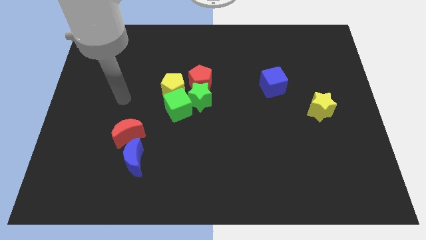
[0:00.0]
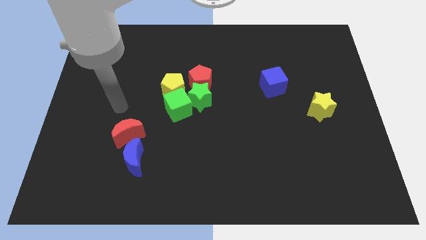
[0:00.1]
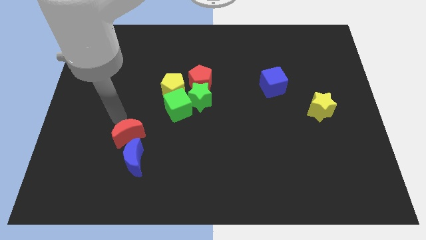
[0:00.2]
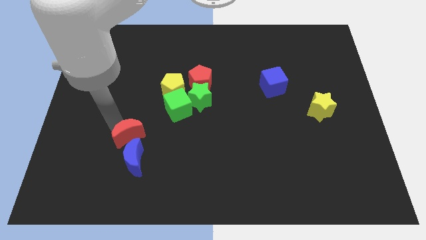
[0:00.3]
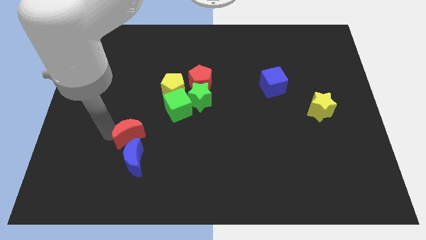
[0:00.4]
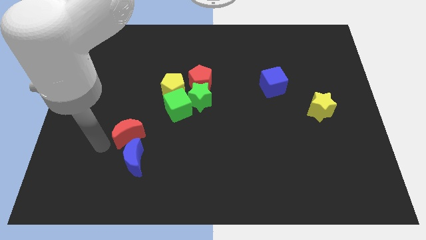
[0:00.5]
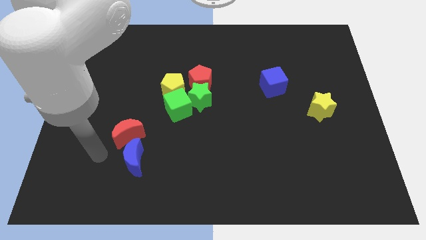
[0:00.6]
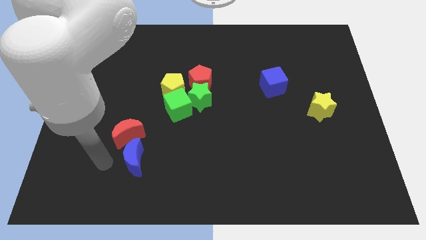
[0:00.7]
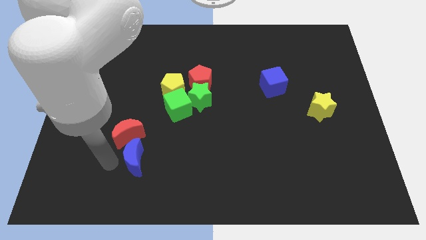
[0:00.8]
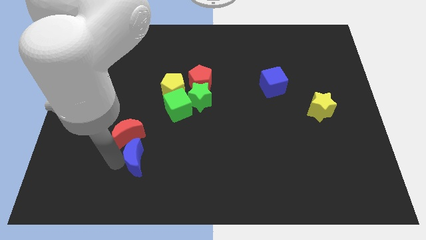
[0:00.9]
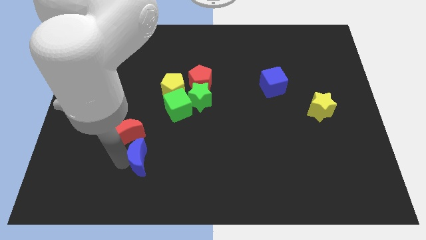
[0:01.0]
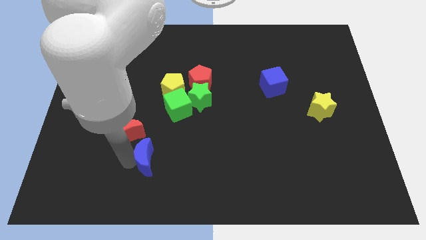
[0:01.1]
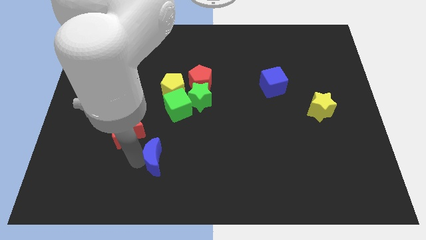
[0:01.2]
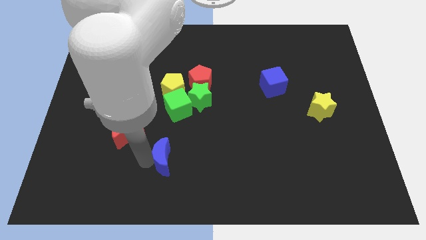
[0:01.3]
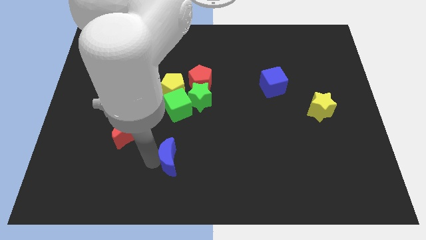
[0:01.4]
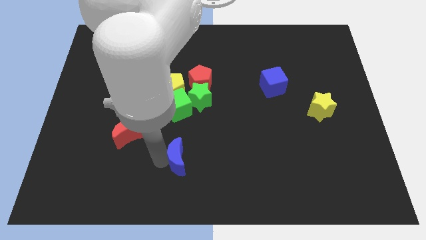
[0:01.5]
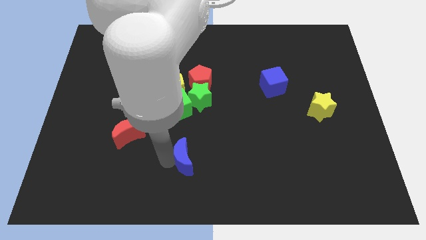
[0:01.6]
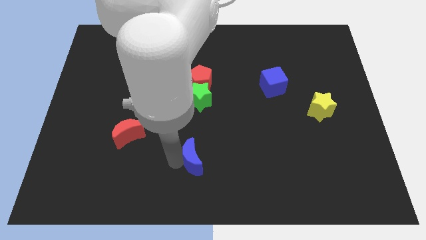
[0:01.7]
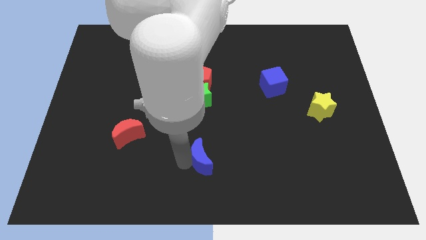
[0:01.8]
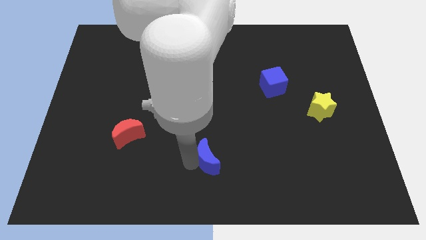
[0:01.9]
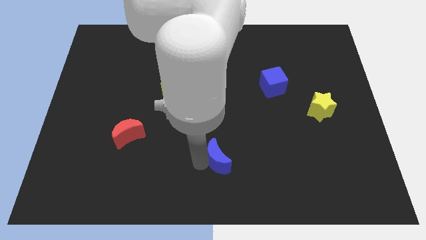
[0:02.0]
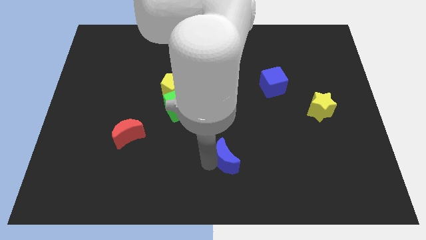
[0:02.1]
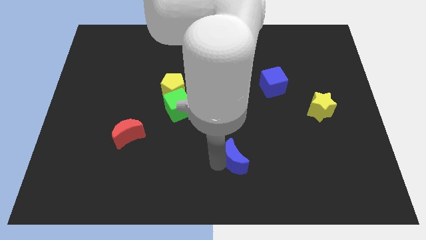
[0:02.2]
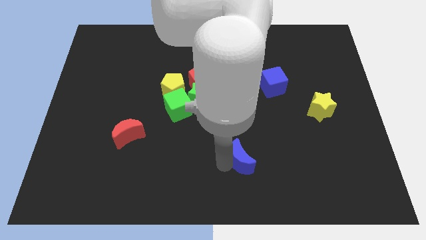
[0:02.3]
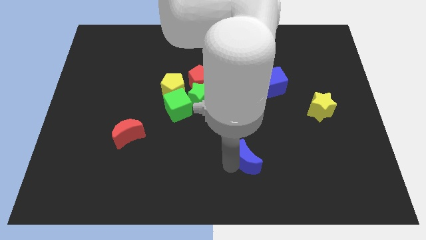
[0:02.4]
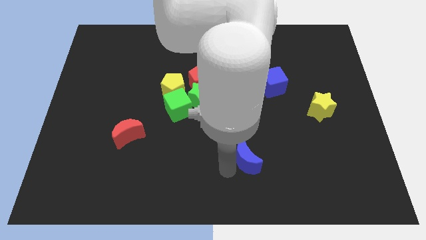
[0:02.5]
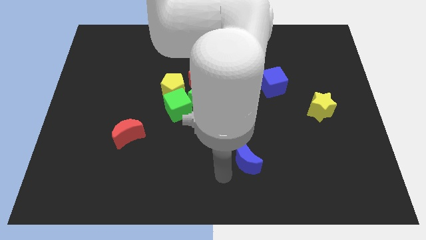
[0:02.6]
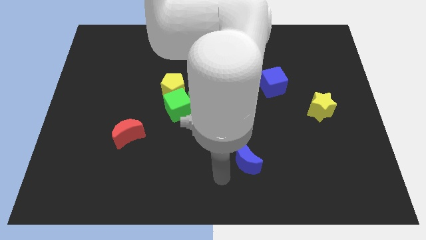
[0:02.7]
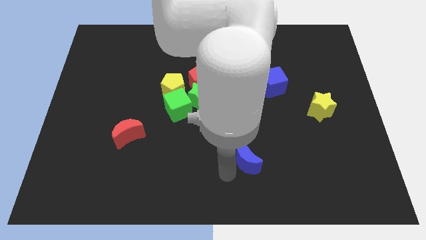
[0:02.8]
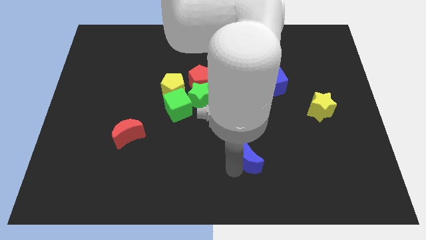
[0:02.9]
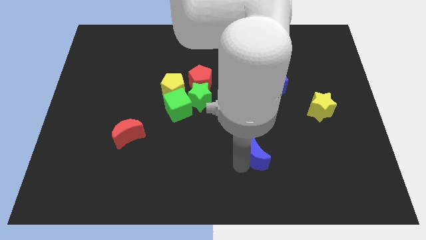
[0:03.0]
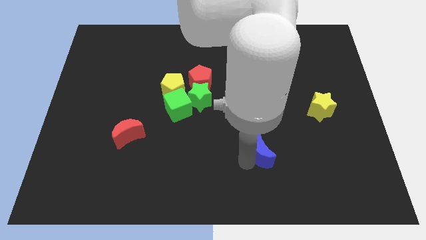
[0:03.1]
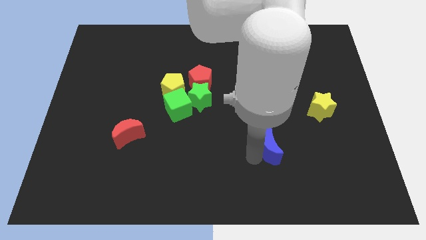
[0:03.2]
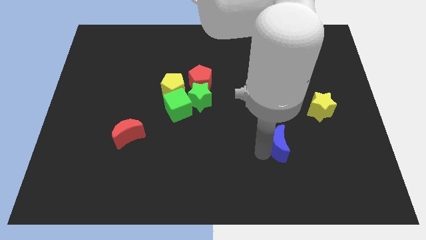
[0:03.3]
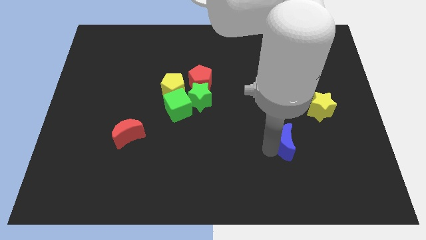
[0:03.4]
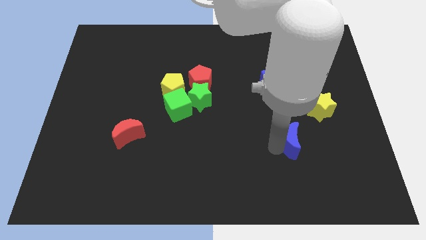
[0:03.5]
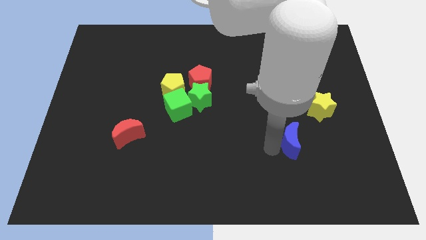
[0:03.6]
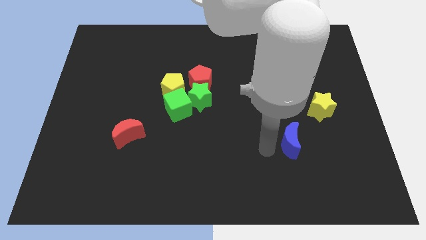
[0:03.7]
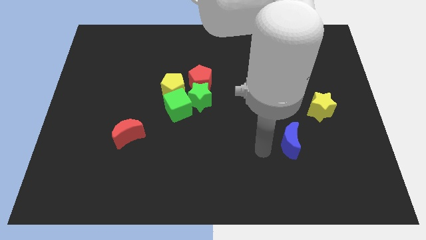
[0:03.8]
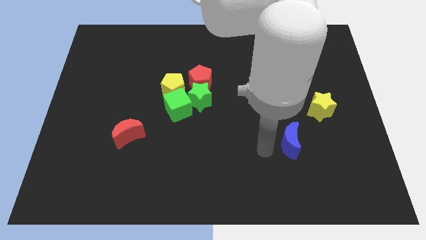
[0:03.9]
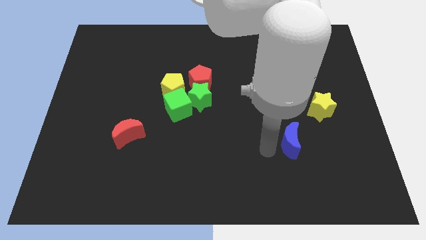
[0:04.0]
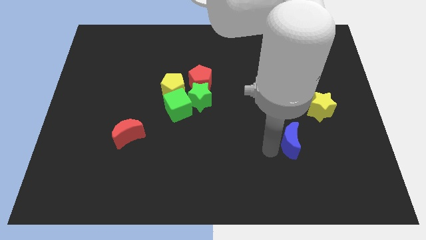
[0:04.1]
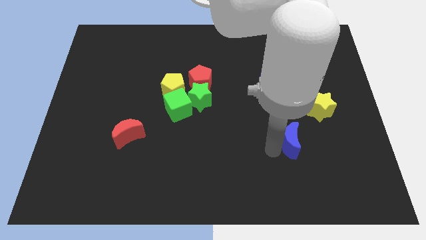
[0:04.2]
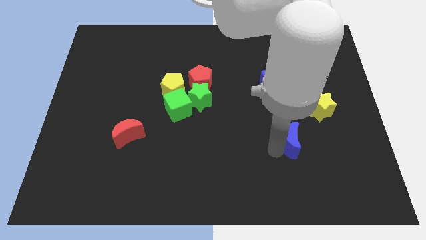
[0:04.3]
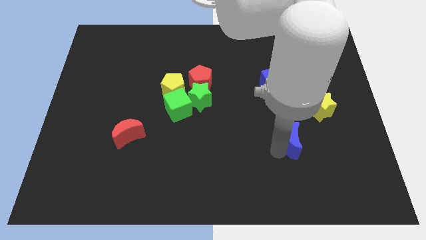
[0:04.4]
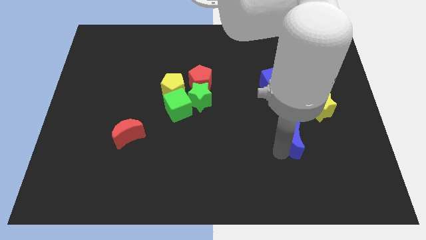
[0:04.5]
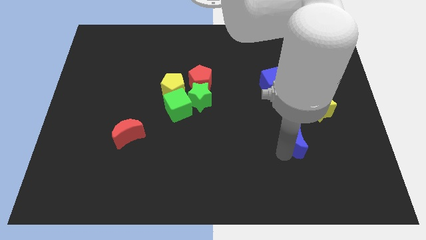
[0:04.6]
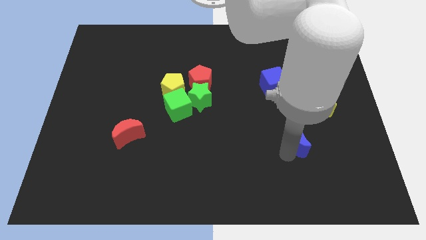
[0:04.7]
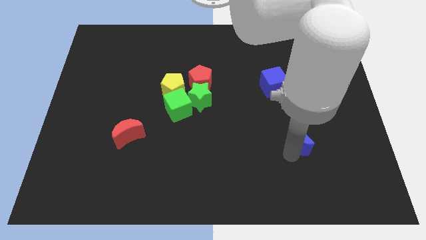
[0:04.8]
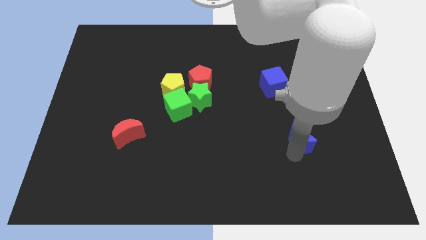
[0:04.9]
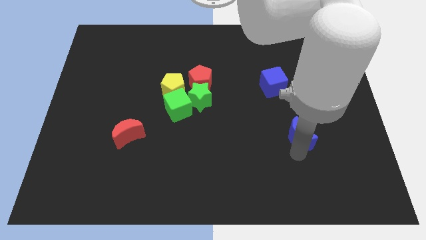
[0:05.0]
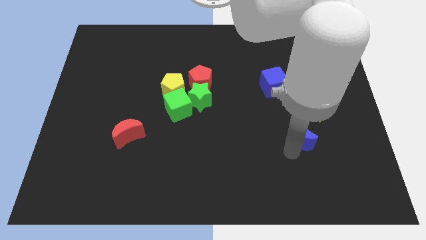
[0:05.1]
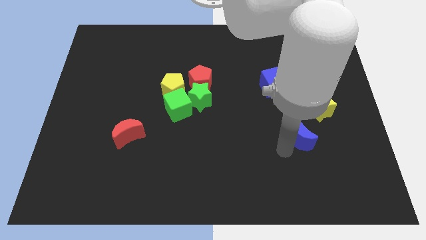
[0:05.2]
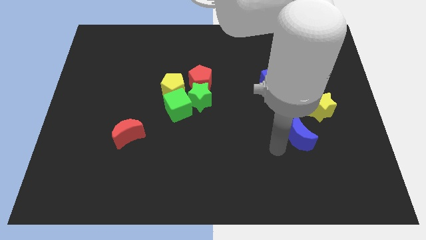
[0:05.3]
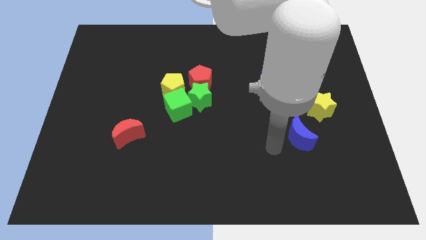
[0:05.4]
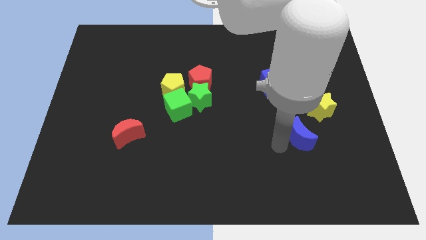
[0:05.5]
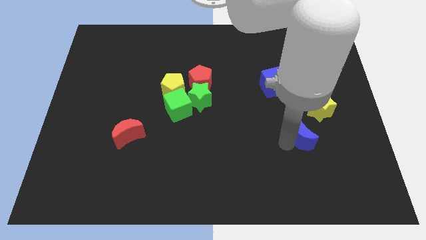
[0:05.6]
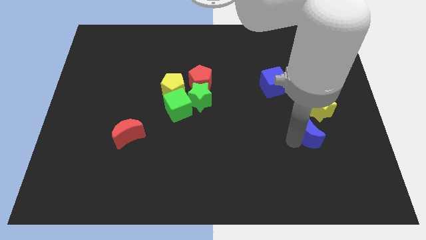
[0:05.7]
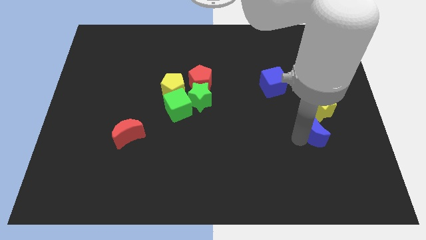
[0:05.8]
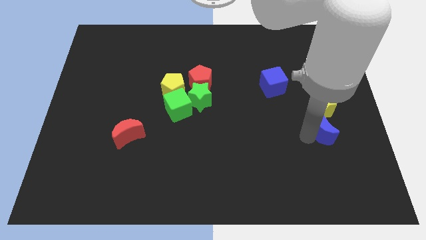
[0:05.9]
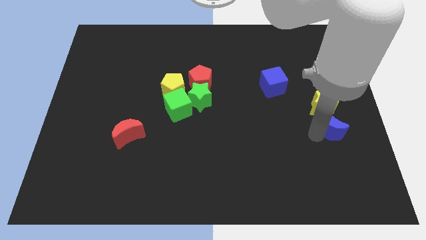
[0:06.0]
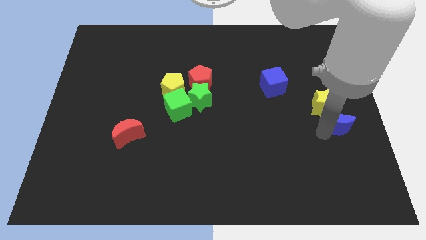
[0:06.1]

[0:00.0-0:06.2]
put the blue moon to the center right
